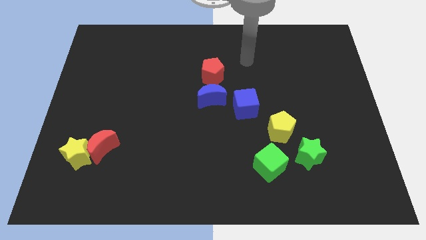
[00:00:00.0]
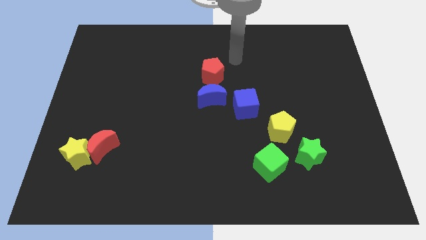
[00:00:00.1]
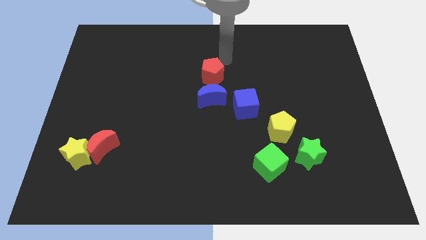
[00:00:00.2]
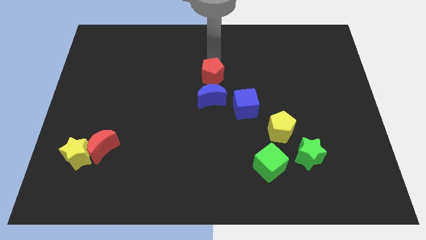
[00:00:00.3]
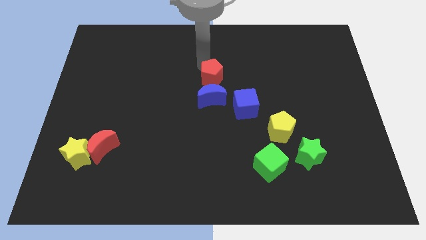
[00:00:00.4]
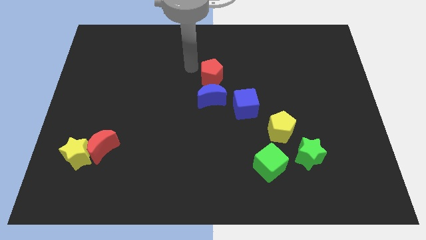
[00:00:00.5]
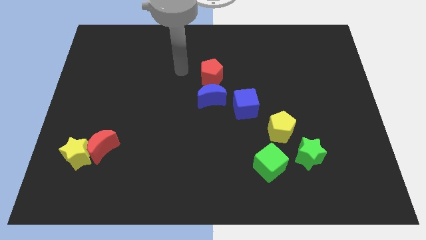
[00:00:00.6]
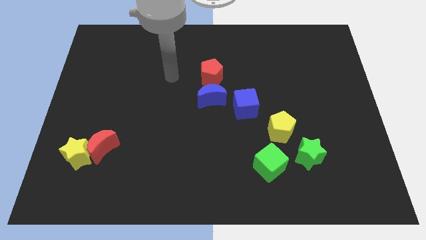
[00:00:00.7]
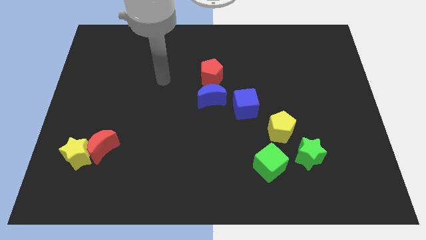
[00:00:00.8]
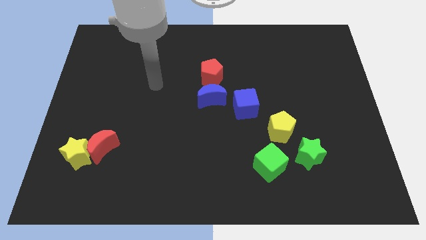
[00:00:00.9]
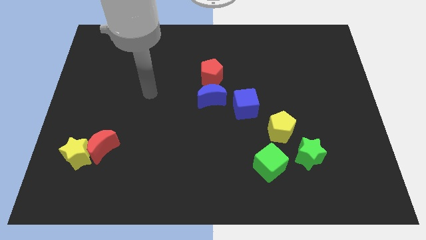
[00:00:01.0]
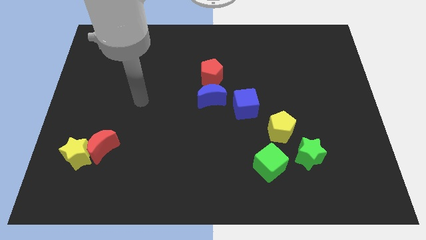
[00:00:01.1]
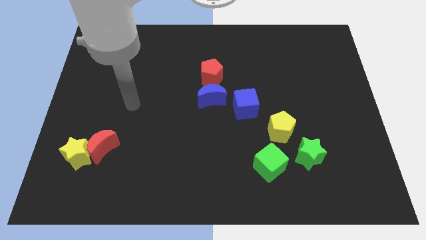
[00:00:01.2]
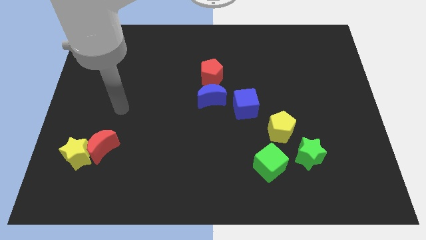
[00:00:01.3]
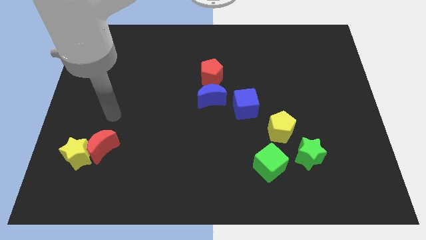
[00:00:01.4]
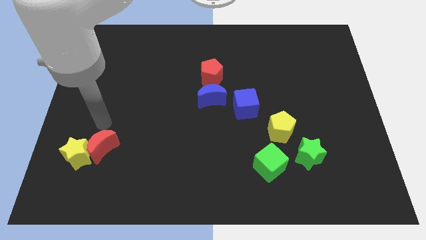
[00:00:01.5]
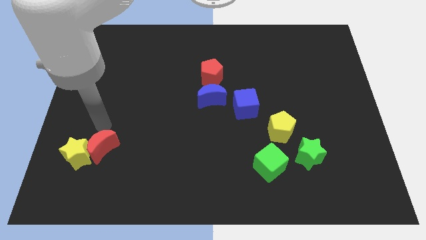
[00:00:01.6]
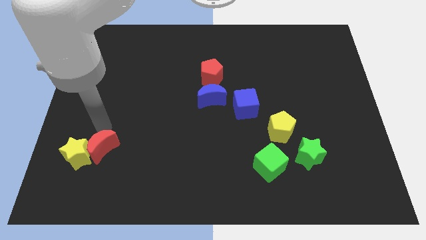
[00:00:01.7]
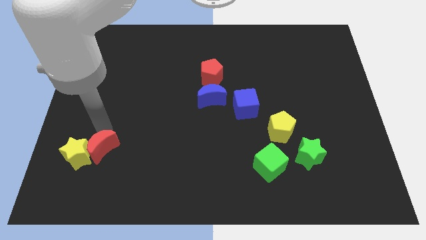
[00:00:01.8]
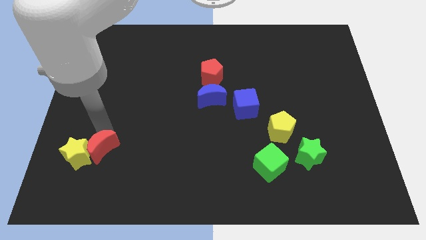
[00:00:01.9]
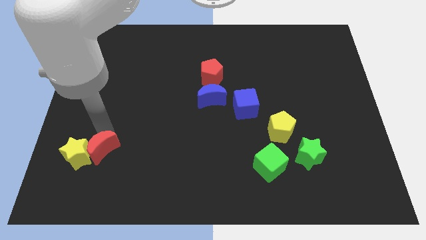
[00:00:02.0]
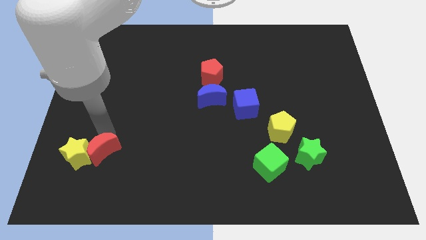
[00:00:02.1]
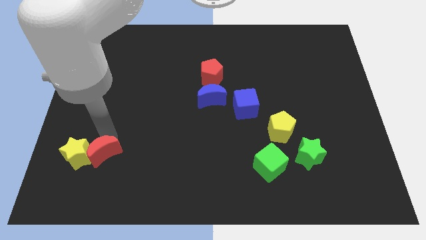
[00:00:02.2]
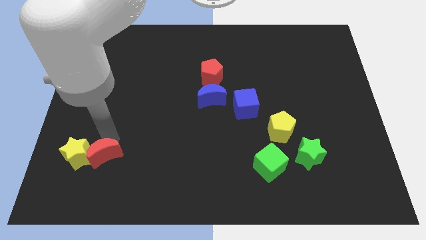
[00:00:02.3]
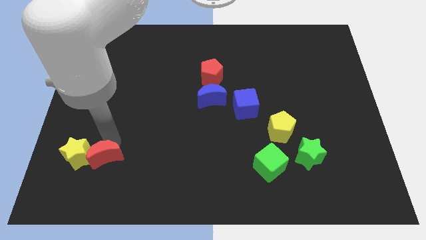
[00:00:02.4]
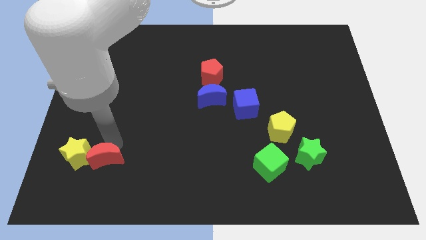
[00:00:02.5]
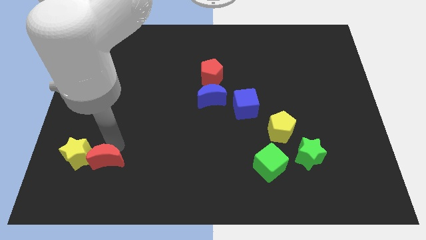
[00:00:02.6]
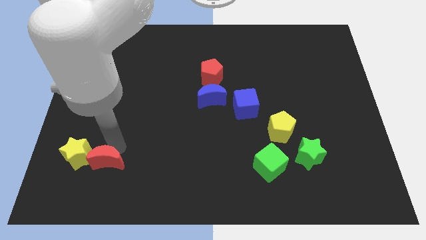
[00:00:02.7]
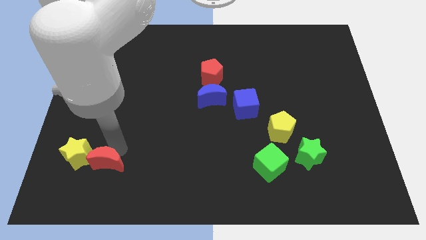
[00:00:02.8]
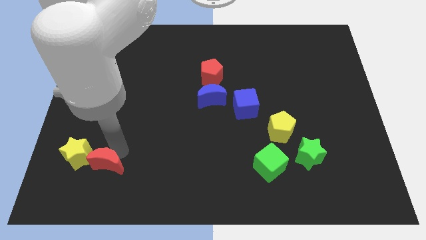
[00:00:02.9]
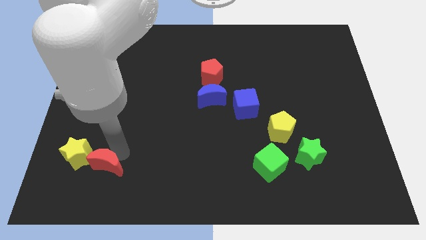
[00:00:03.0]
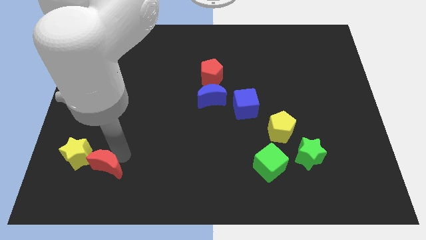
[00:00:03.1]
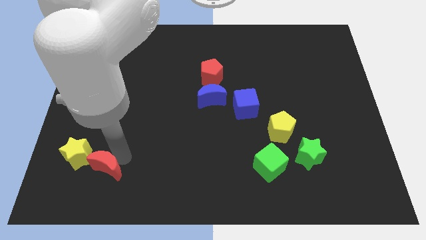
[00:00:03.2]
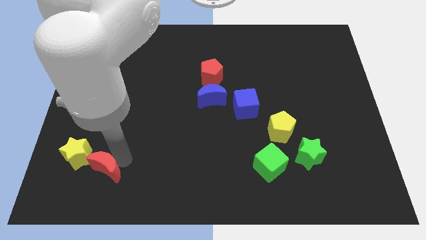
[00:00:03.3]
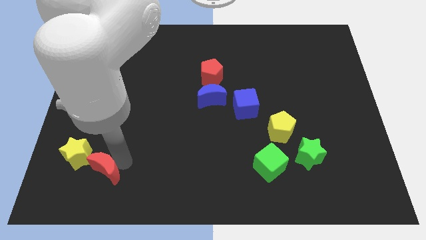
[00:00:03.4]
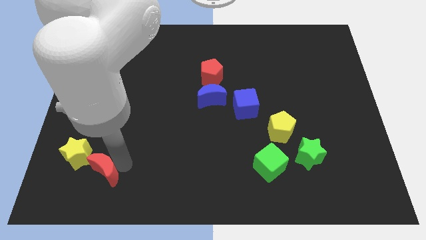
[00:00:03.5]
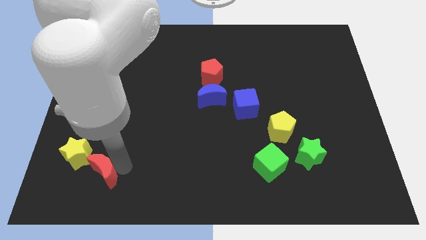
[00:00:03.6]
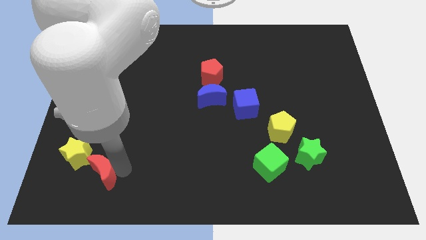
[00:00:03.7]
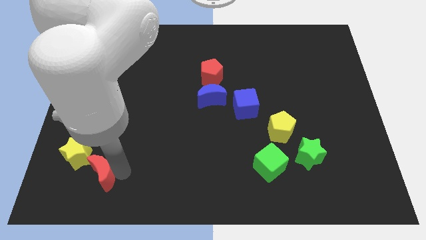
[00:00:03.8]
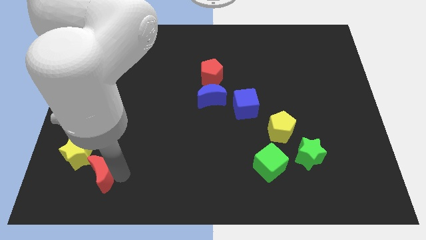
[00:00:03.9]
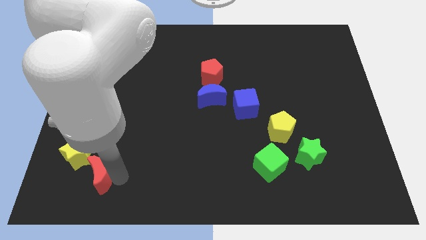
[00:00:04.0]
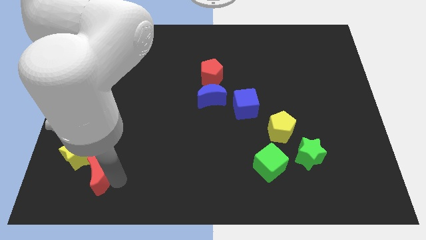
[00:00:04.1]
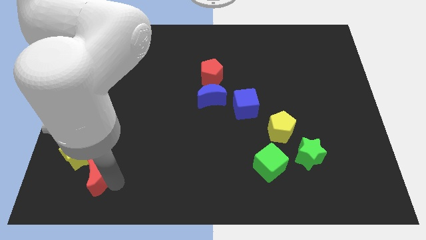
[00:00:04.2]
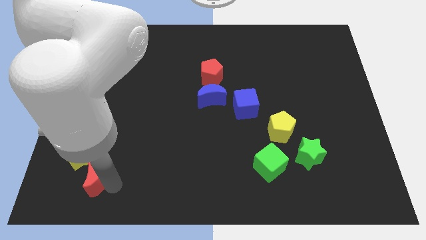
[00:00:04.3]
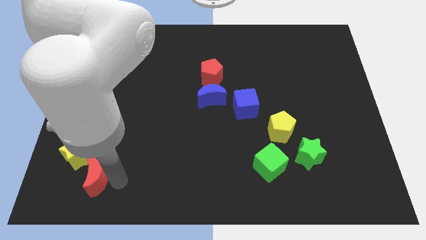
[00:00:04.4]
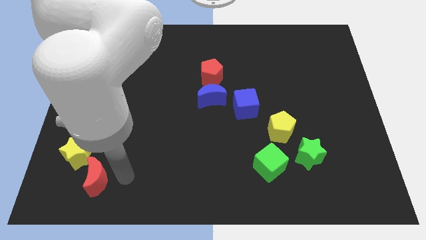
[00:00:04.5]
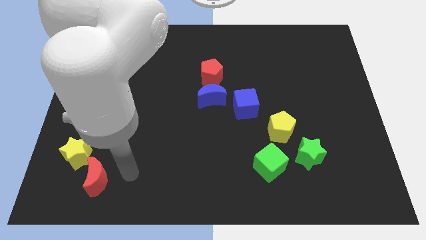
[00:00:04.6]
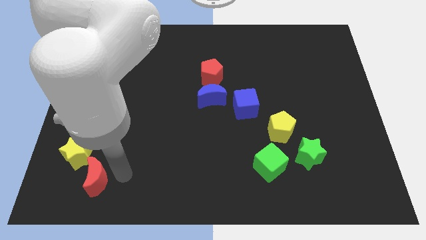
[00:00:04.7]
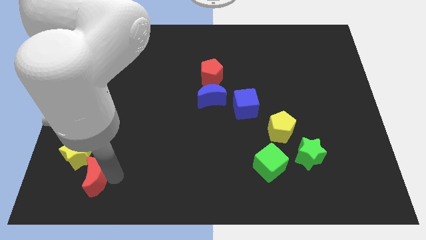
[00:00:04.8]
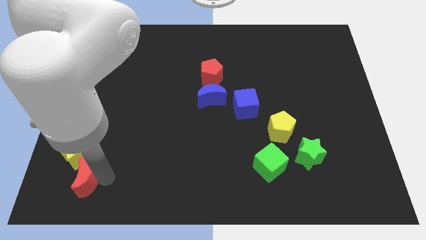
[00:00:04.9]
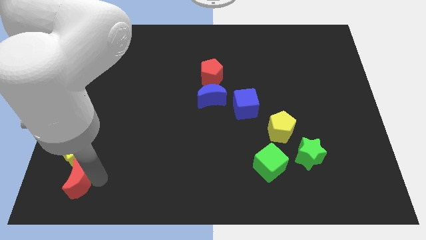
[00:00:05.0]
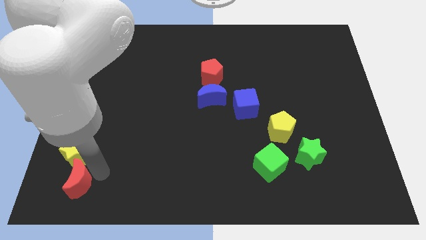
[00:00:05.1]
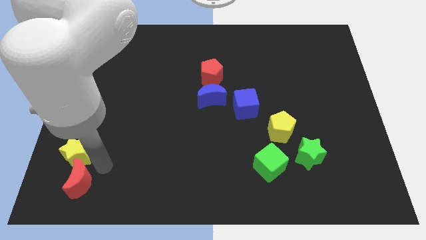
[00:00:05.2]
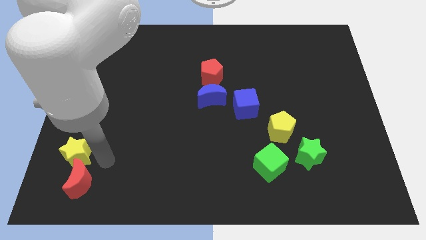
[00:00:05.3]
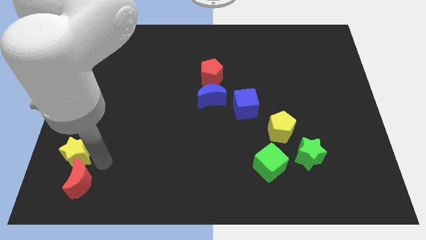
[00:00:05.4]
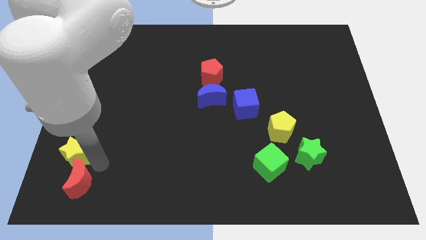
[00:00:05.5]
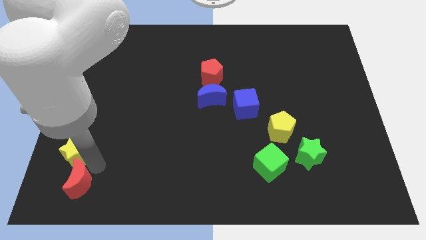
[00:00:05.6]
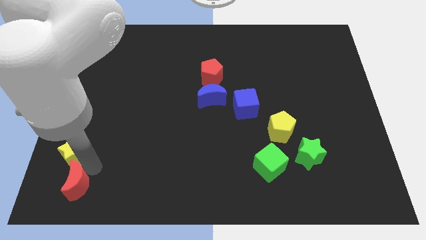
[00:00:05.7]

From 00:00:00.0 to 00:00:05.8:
move the red moon to the bottom left of the board
